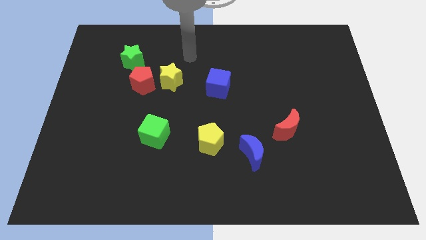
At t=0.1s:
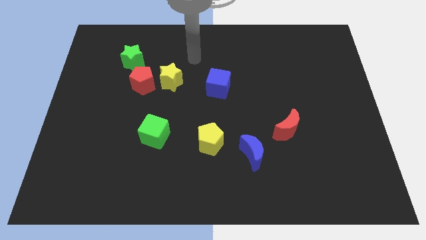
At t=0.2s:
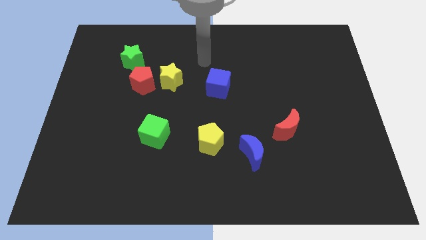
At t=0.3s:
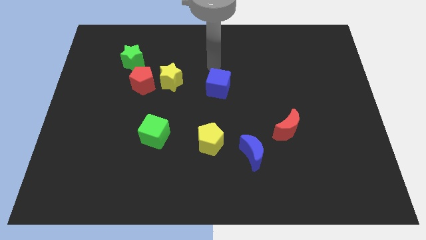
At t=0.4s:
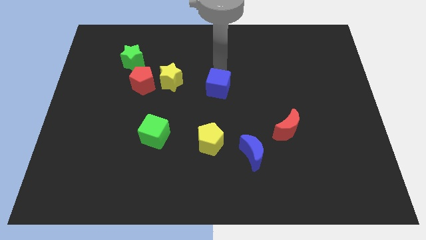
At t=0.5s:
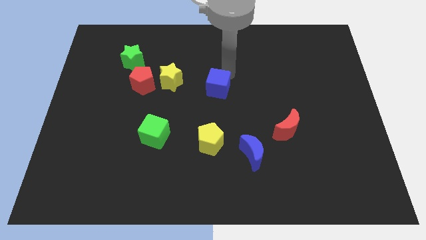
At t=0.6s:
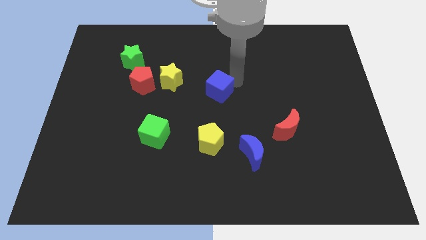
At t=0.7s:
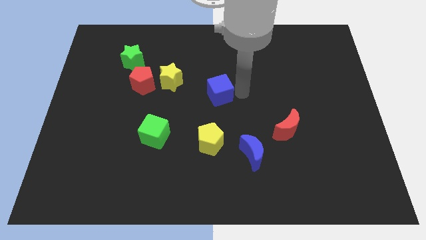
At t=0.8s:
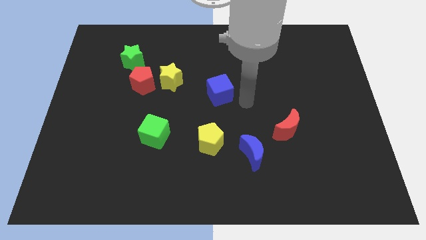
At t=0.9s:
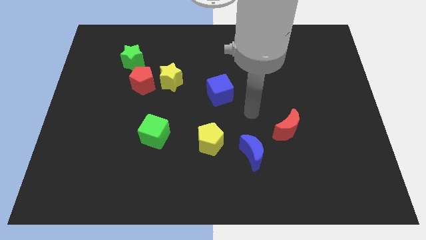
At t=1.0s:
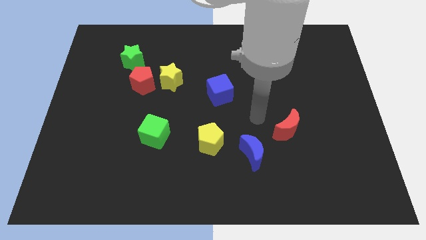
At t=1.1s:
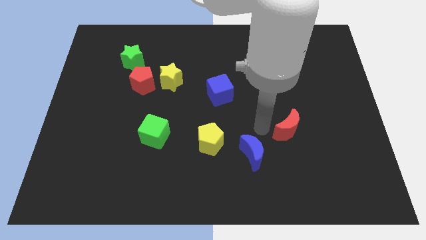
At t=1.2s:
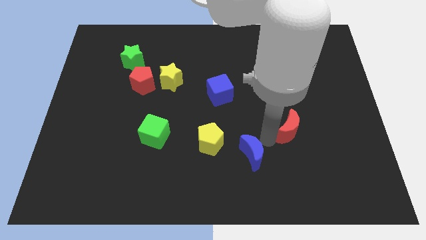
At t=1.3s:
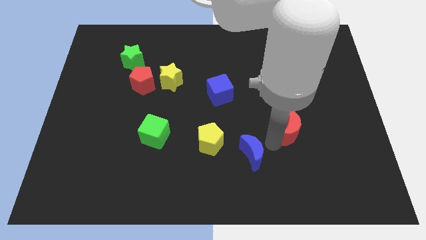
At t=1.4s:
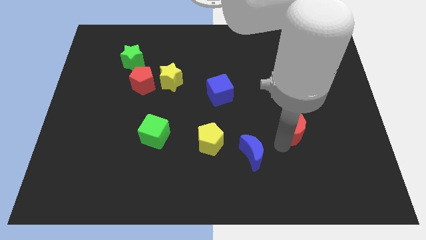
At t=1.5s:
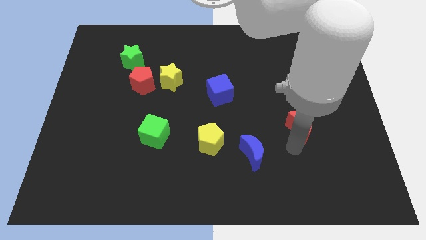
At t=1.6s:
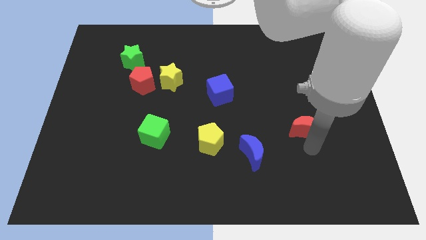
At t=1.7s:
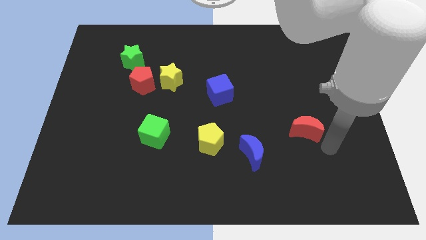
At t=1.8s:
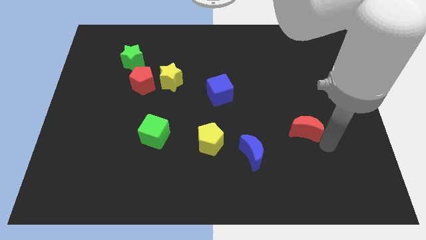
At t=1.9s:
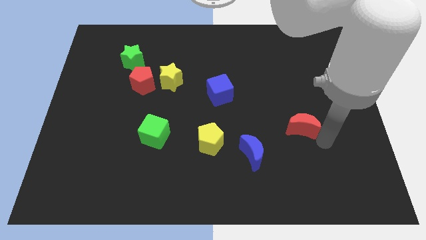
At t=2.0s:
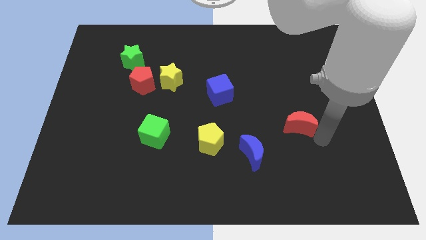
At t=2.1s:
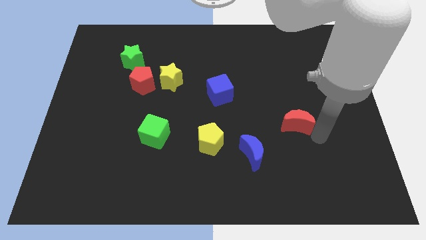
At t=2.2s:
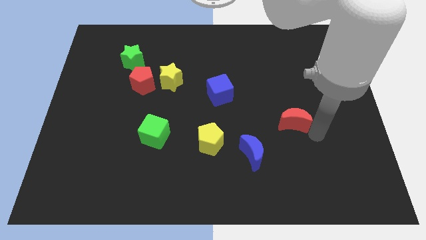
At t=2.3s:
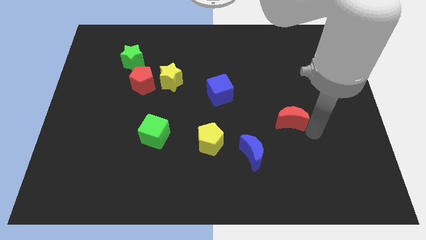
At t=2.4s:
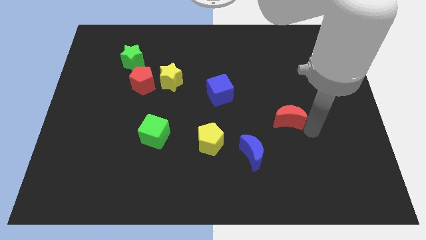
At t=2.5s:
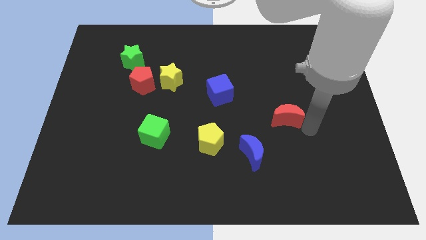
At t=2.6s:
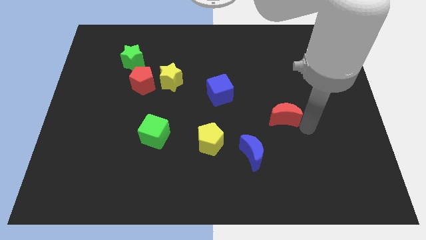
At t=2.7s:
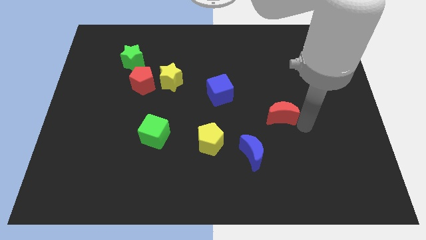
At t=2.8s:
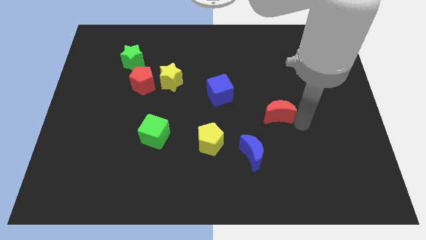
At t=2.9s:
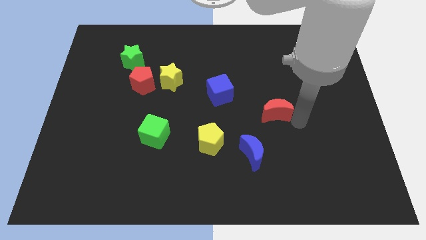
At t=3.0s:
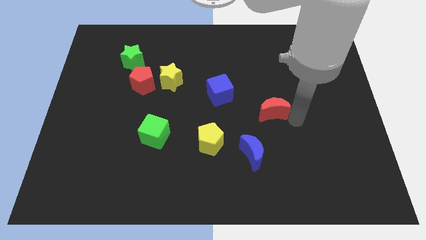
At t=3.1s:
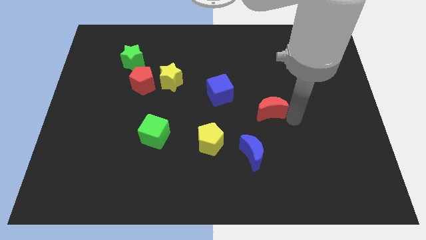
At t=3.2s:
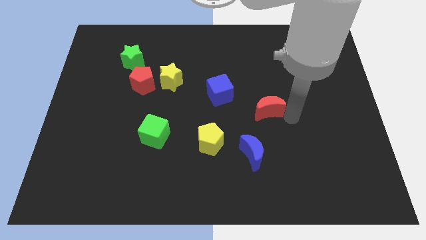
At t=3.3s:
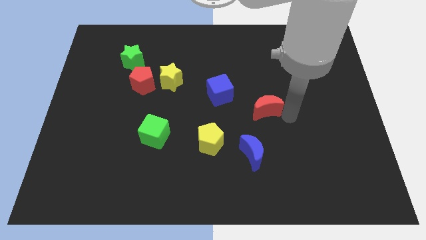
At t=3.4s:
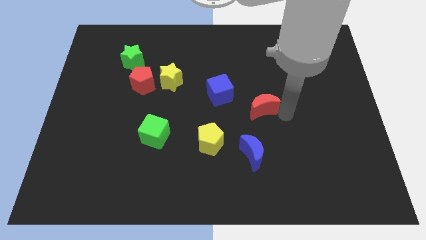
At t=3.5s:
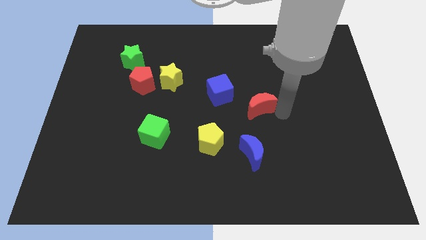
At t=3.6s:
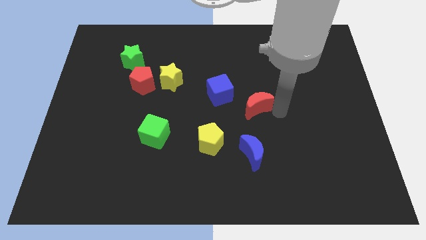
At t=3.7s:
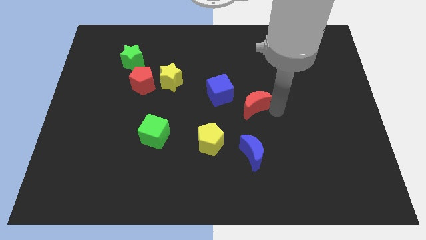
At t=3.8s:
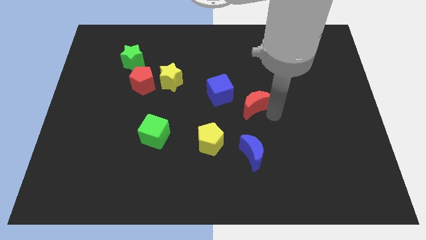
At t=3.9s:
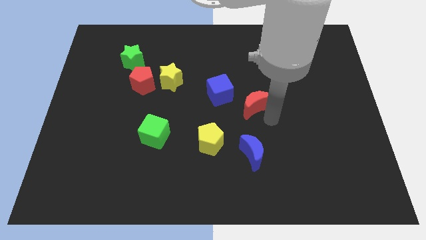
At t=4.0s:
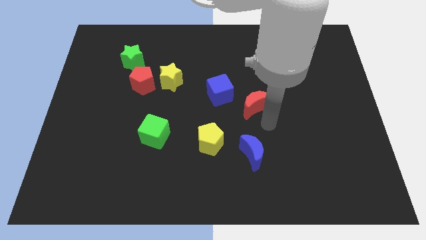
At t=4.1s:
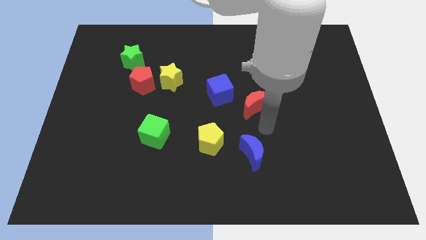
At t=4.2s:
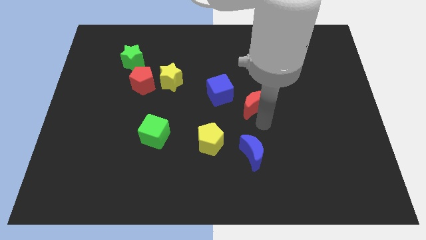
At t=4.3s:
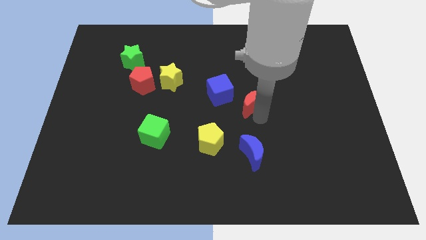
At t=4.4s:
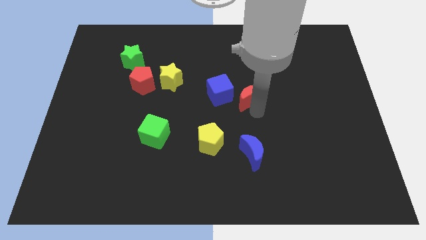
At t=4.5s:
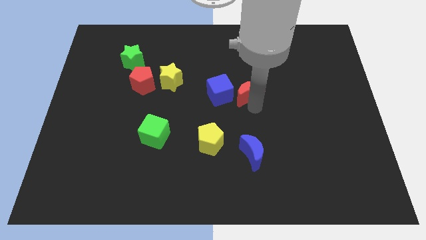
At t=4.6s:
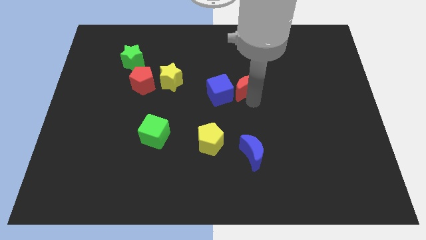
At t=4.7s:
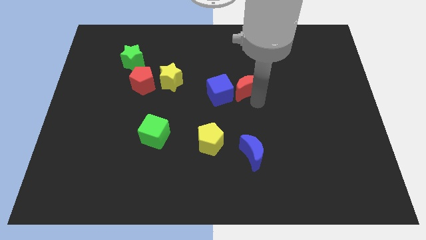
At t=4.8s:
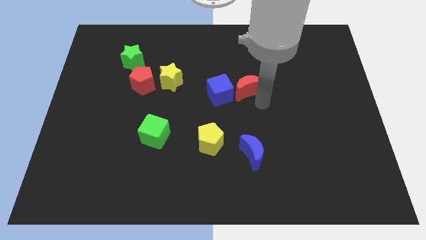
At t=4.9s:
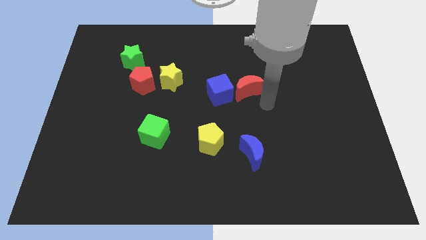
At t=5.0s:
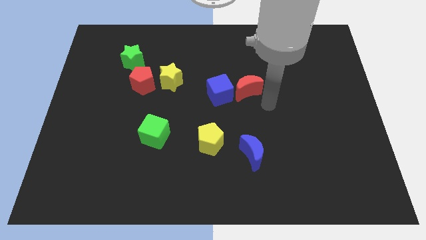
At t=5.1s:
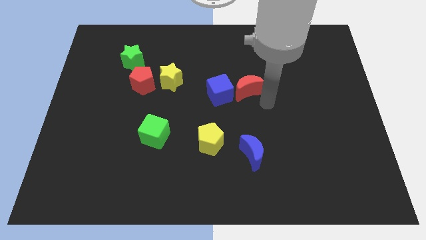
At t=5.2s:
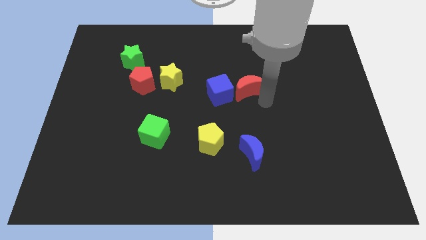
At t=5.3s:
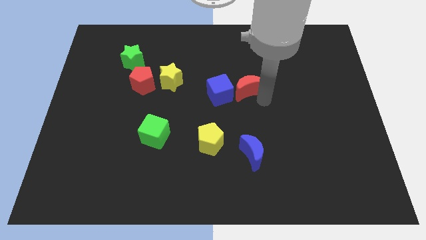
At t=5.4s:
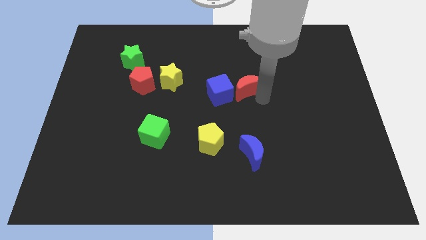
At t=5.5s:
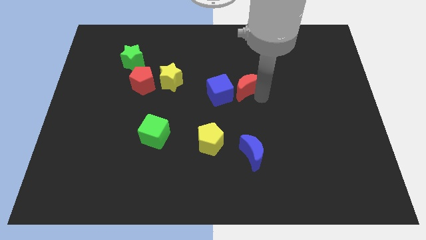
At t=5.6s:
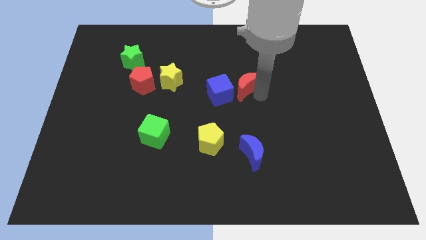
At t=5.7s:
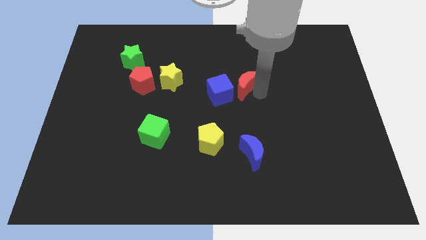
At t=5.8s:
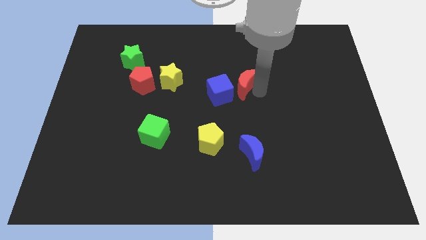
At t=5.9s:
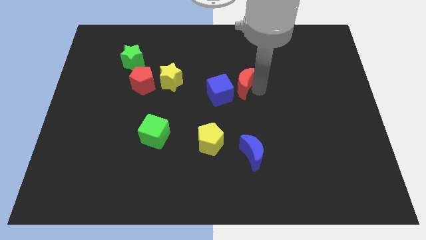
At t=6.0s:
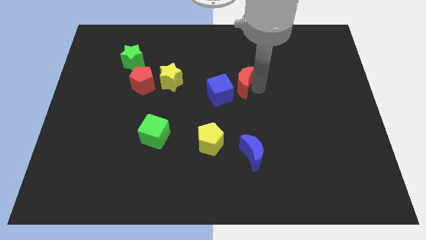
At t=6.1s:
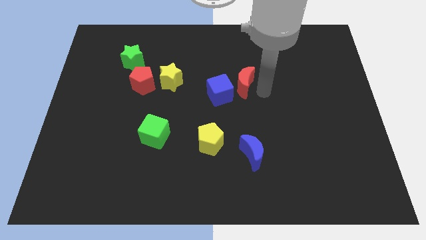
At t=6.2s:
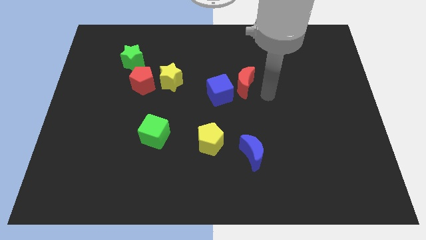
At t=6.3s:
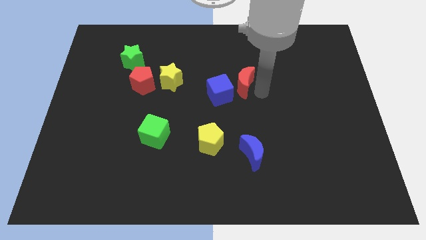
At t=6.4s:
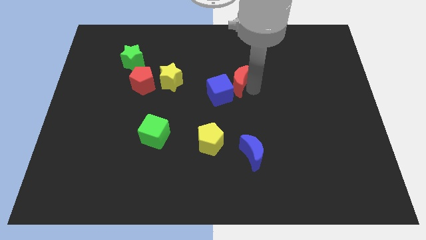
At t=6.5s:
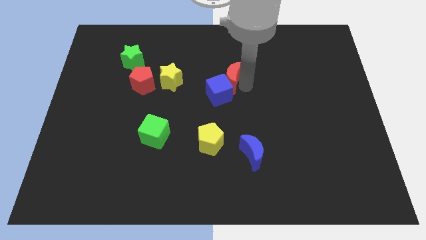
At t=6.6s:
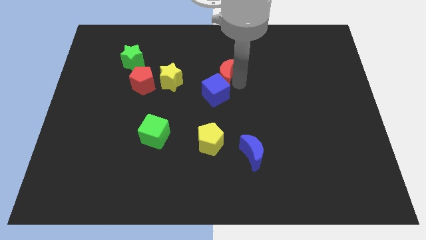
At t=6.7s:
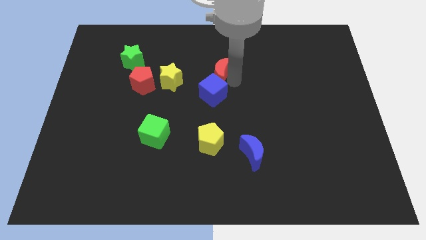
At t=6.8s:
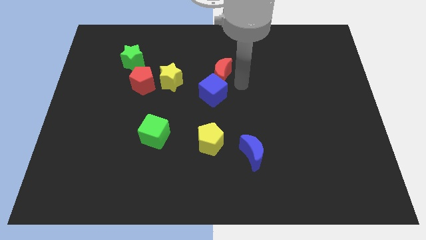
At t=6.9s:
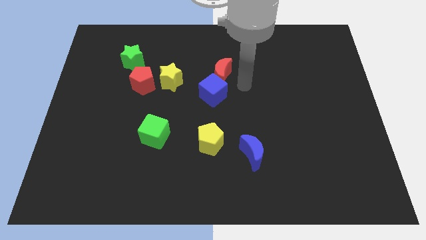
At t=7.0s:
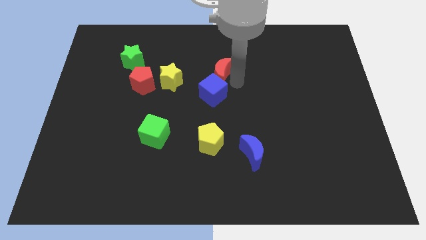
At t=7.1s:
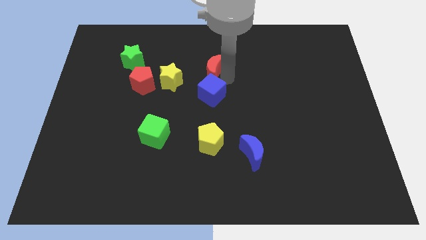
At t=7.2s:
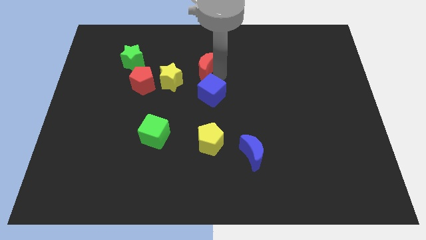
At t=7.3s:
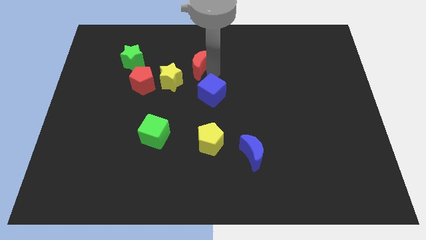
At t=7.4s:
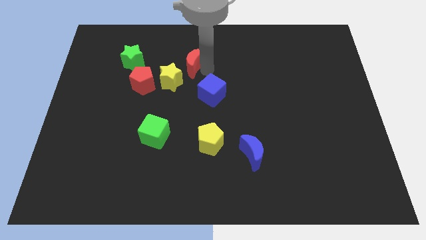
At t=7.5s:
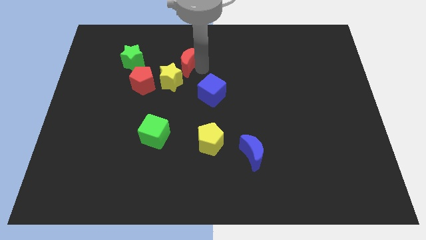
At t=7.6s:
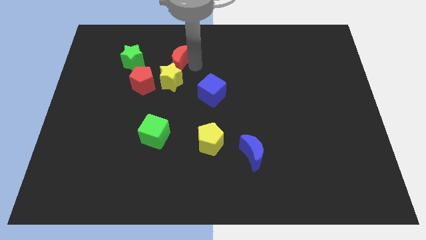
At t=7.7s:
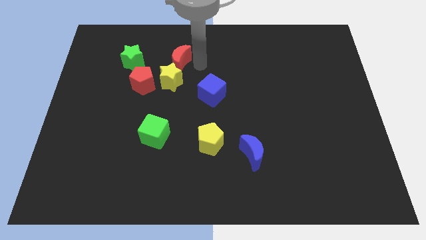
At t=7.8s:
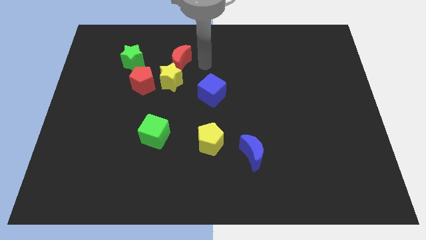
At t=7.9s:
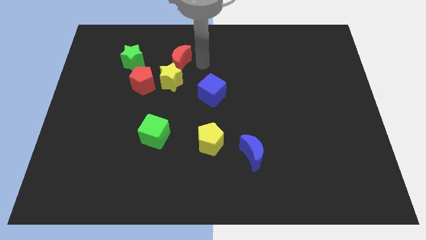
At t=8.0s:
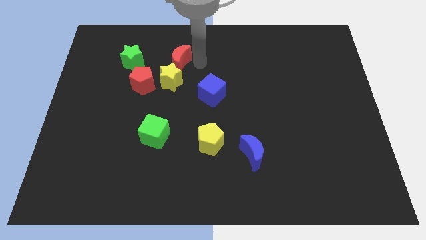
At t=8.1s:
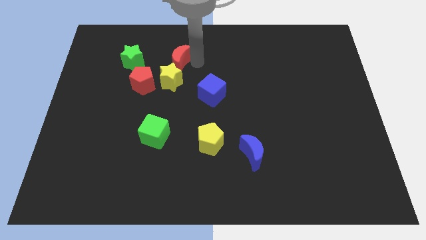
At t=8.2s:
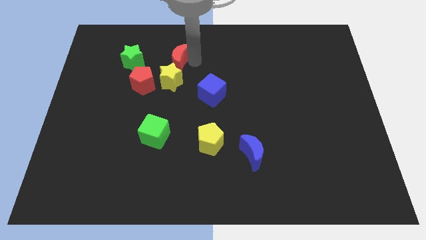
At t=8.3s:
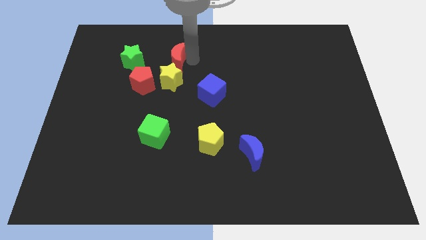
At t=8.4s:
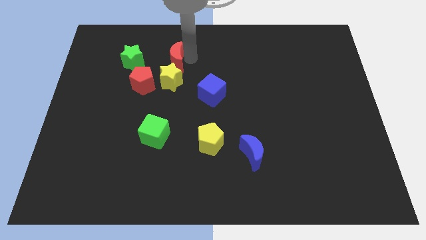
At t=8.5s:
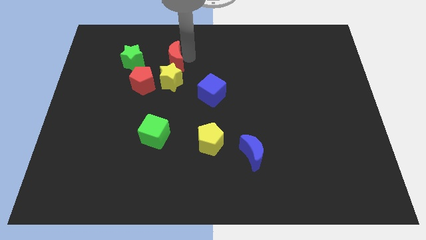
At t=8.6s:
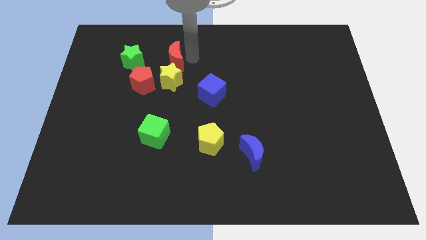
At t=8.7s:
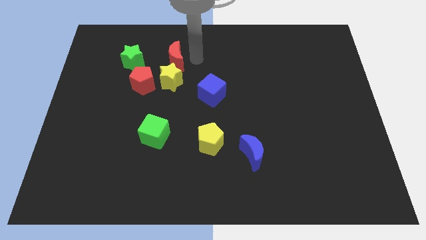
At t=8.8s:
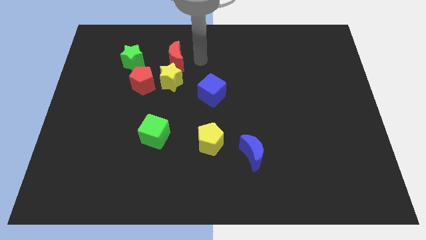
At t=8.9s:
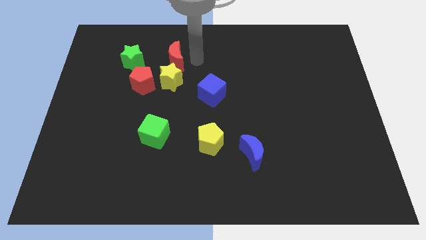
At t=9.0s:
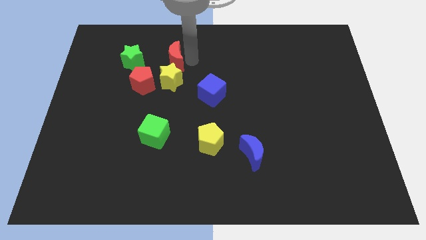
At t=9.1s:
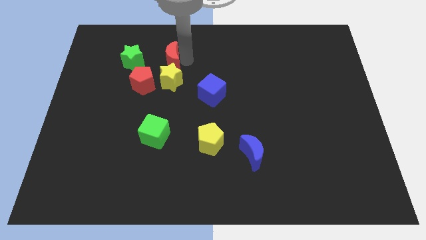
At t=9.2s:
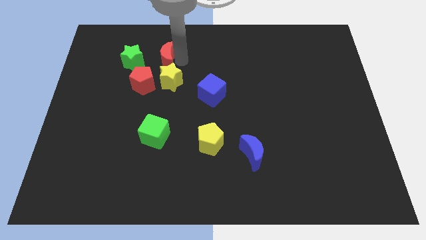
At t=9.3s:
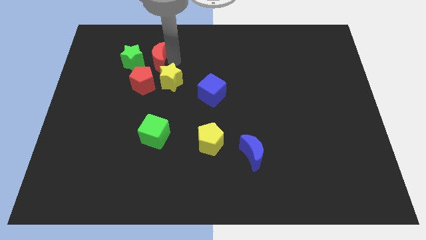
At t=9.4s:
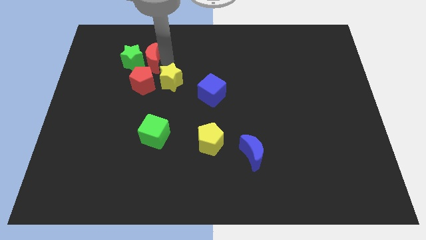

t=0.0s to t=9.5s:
push the red moon to the green star
